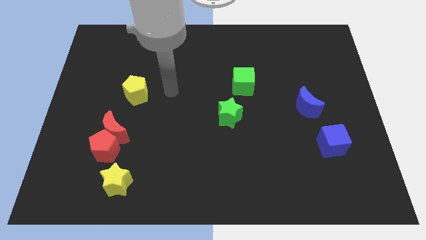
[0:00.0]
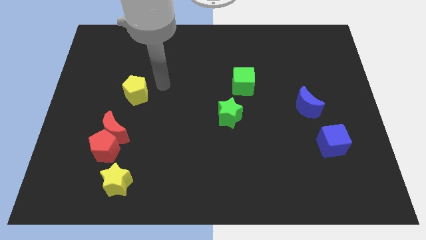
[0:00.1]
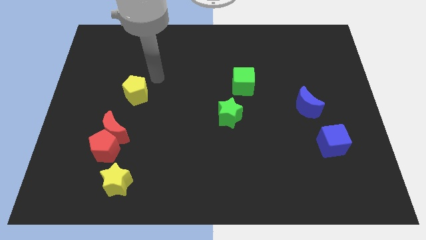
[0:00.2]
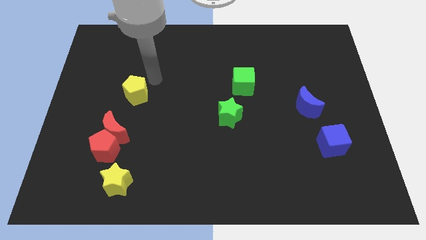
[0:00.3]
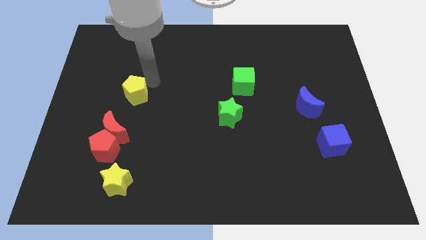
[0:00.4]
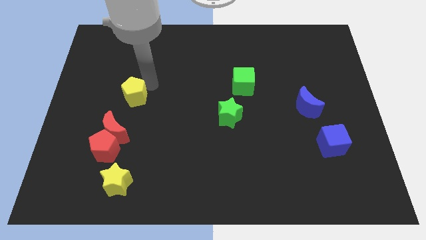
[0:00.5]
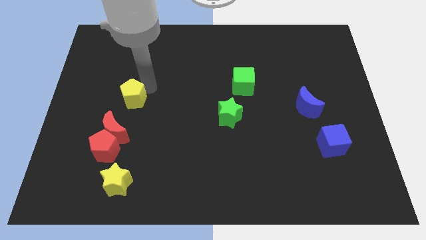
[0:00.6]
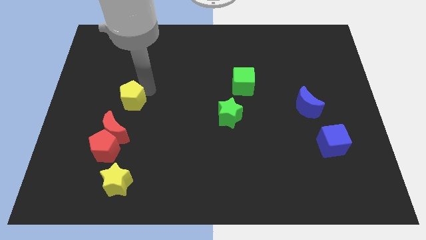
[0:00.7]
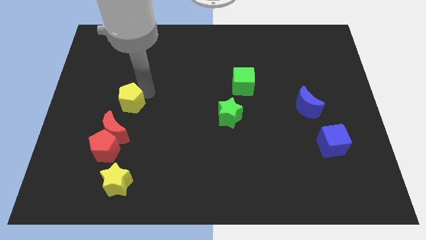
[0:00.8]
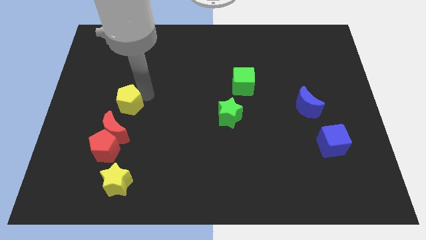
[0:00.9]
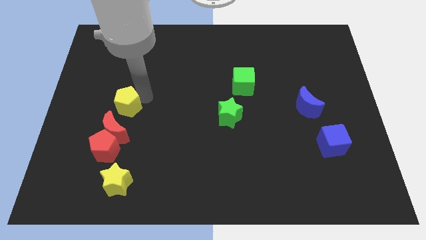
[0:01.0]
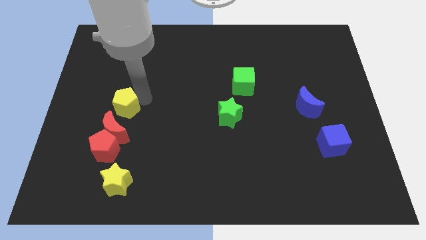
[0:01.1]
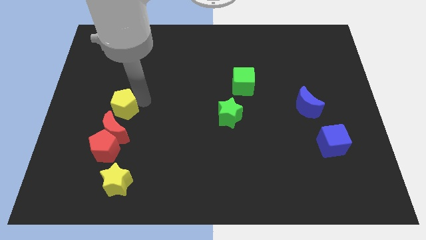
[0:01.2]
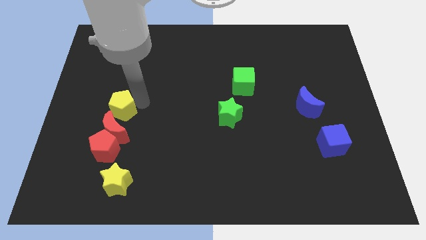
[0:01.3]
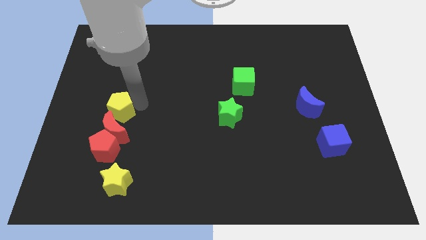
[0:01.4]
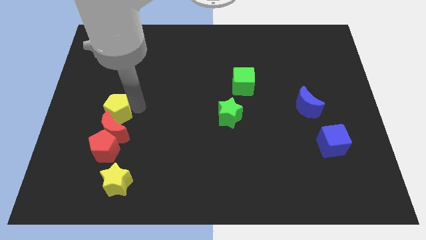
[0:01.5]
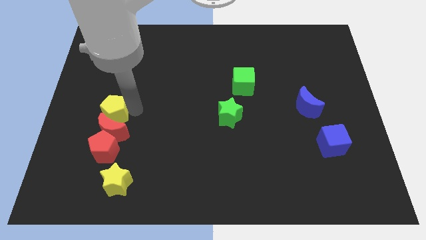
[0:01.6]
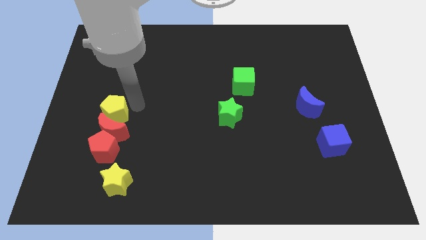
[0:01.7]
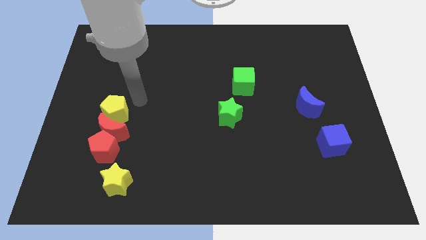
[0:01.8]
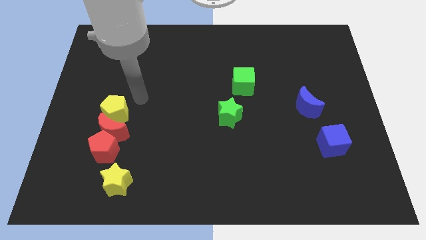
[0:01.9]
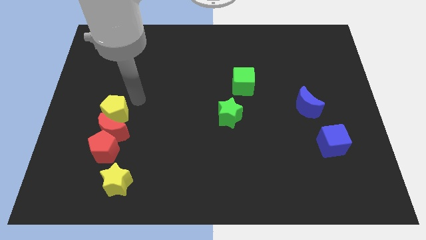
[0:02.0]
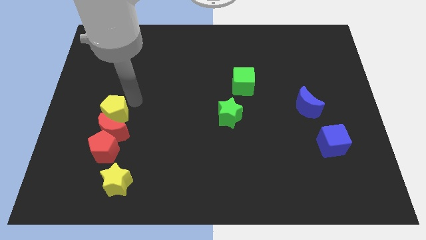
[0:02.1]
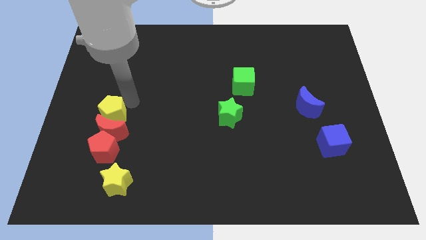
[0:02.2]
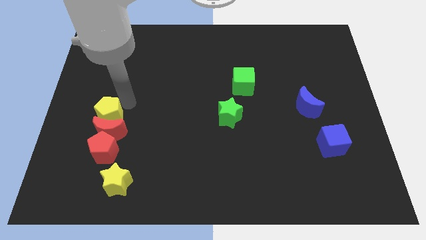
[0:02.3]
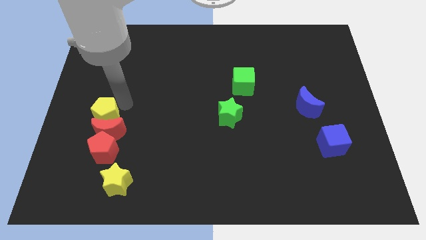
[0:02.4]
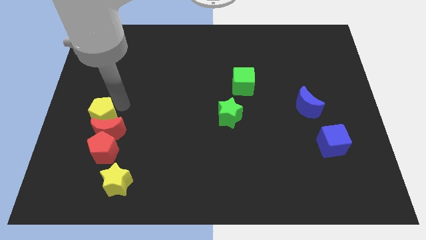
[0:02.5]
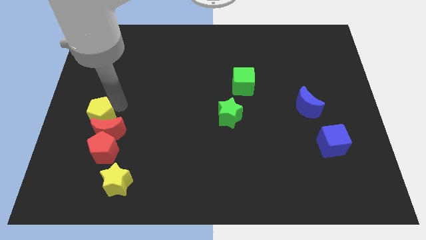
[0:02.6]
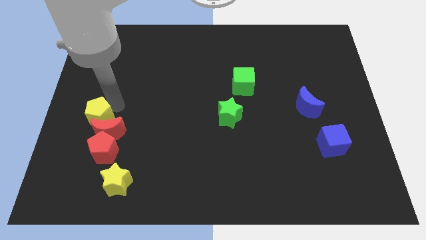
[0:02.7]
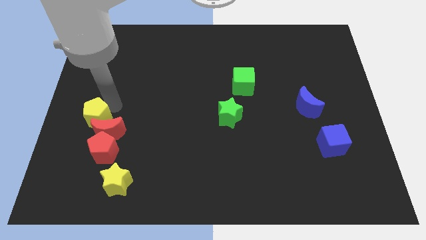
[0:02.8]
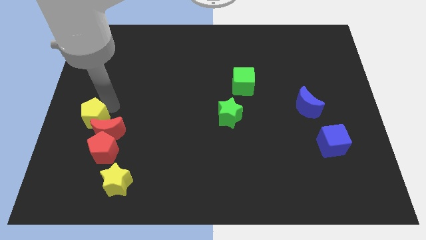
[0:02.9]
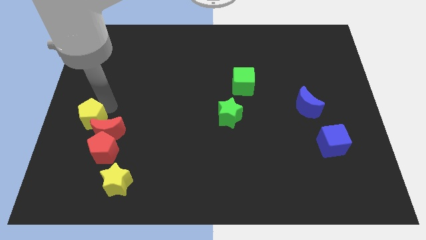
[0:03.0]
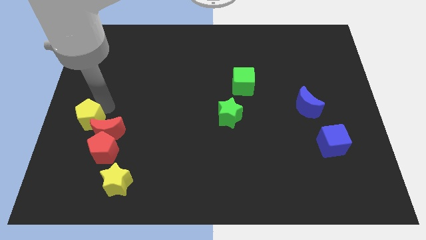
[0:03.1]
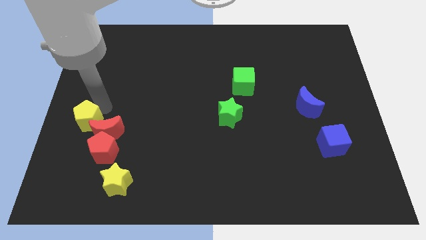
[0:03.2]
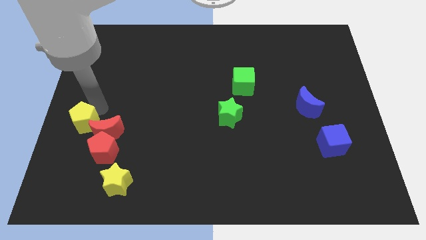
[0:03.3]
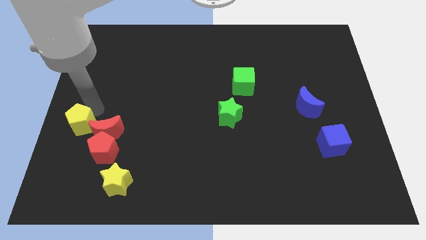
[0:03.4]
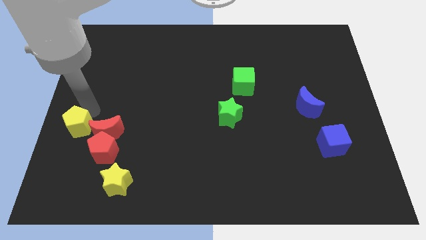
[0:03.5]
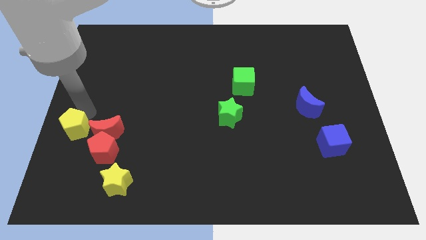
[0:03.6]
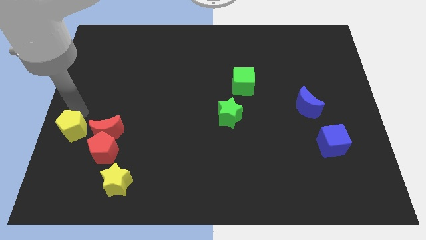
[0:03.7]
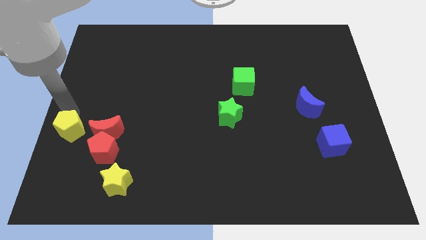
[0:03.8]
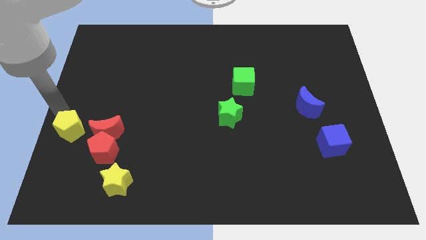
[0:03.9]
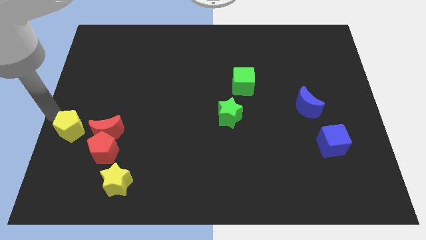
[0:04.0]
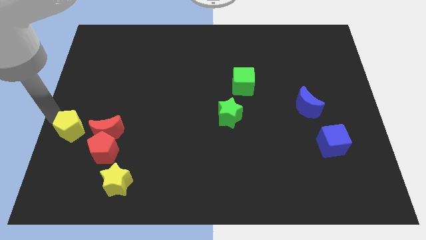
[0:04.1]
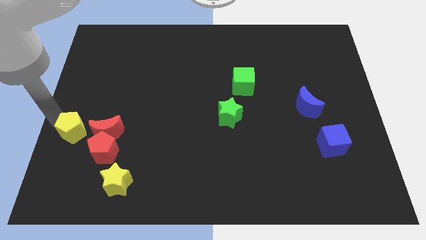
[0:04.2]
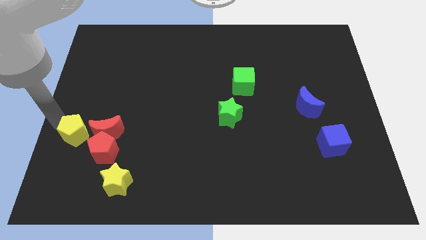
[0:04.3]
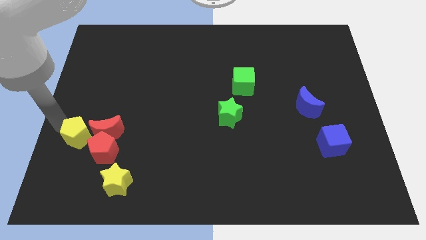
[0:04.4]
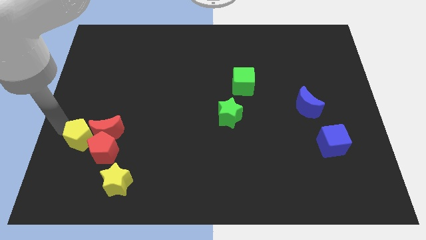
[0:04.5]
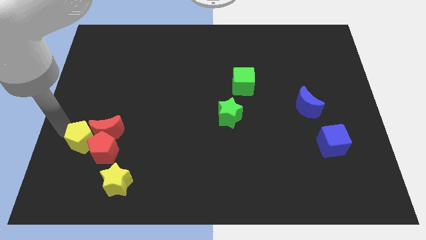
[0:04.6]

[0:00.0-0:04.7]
put the yellow pentagon towards the red pentagon

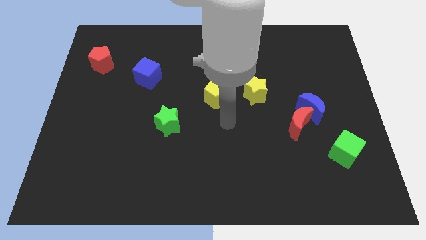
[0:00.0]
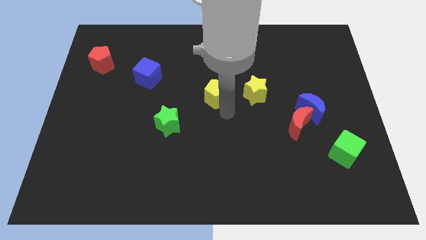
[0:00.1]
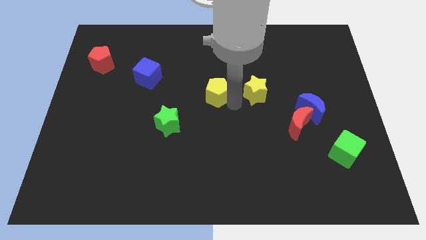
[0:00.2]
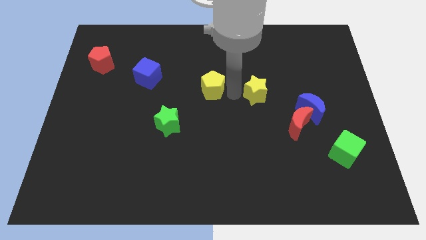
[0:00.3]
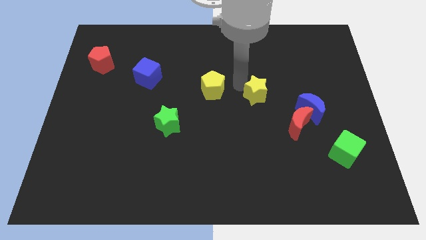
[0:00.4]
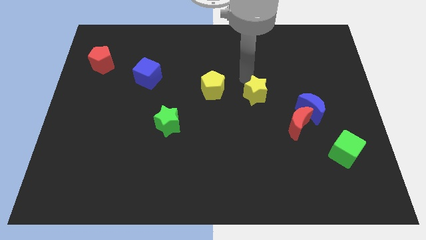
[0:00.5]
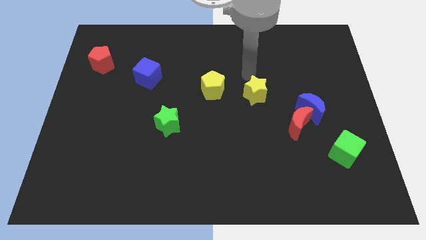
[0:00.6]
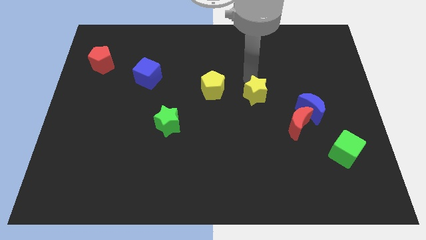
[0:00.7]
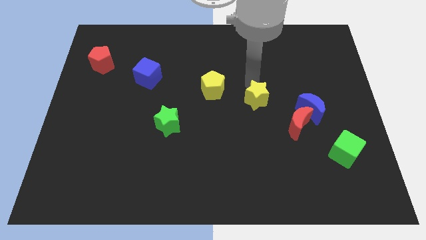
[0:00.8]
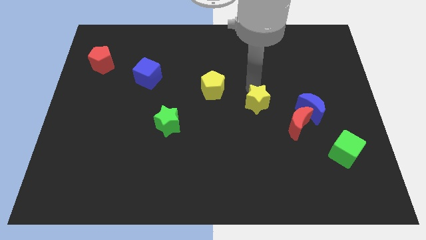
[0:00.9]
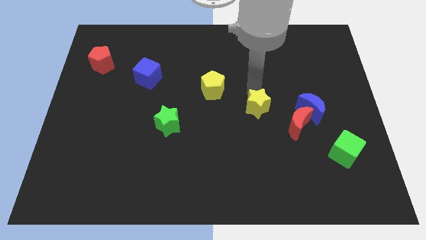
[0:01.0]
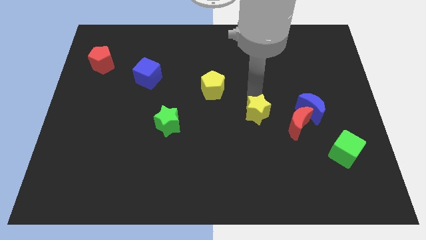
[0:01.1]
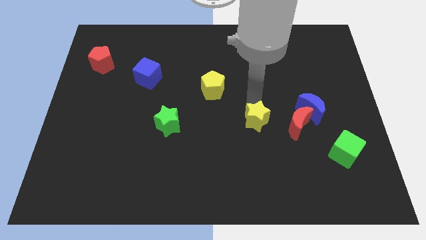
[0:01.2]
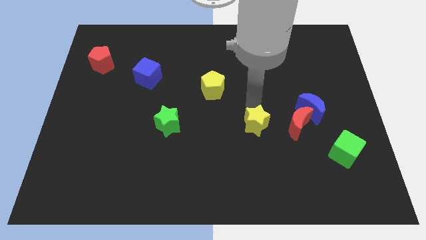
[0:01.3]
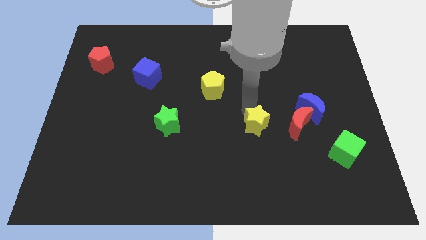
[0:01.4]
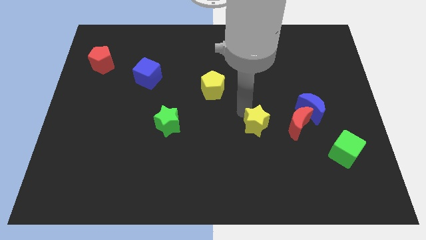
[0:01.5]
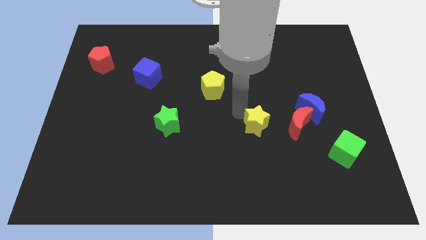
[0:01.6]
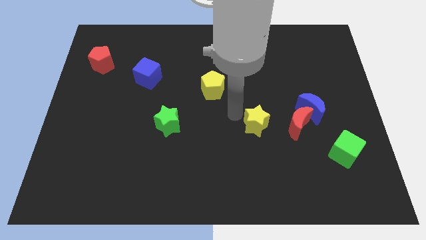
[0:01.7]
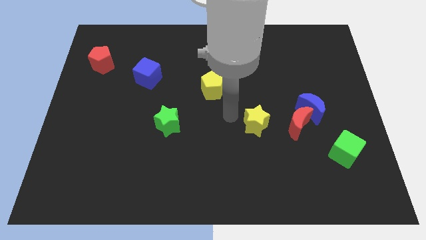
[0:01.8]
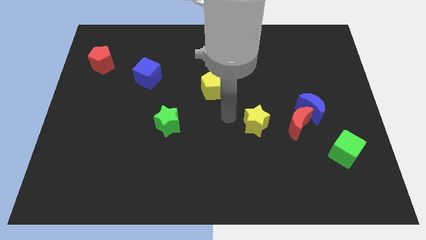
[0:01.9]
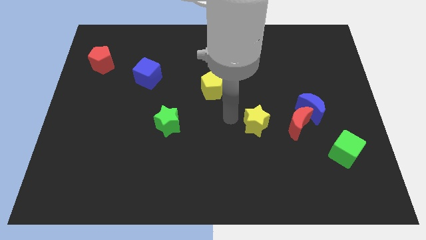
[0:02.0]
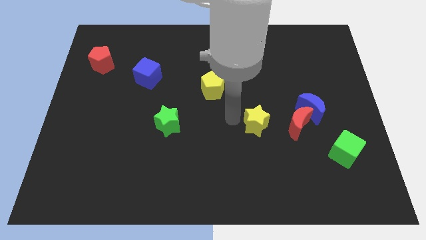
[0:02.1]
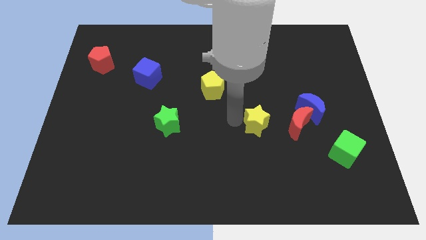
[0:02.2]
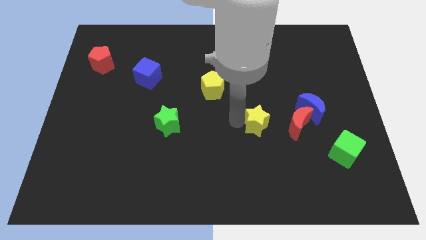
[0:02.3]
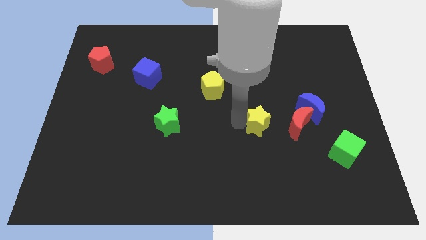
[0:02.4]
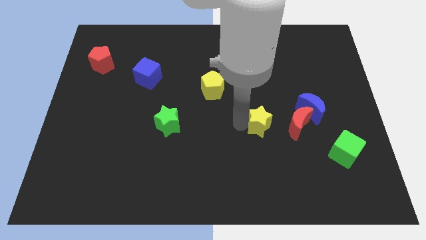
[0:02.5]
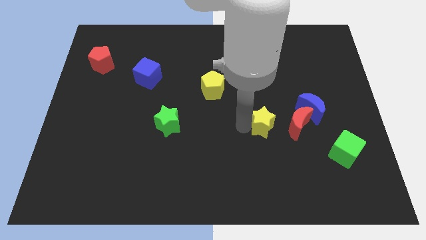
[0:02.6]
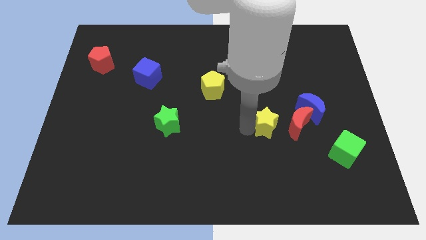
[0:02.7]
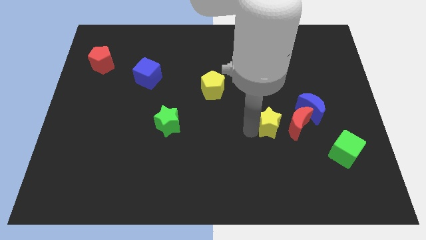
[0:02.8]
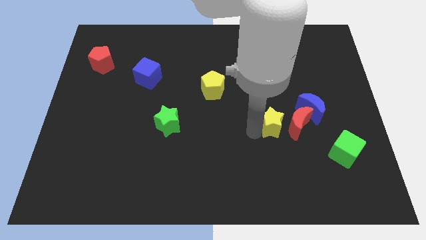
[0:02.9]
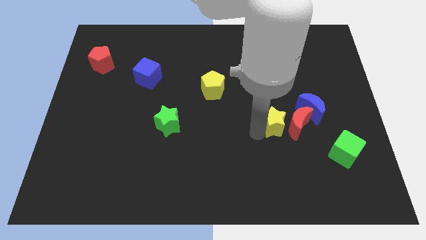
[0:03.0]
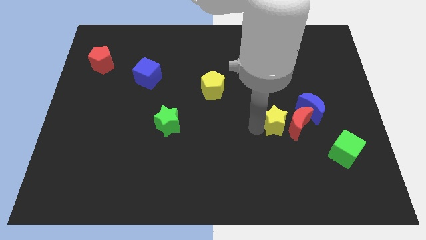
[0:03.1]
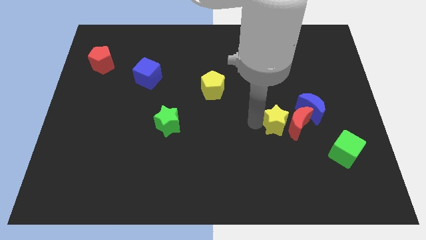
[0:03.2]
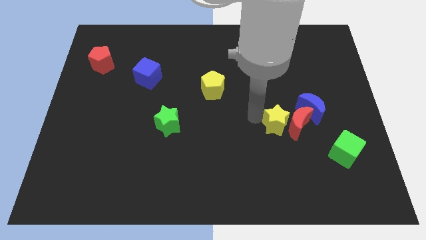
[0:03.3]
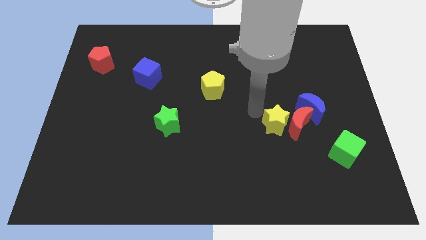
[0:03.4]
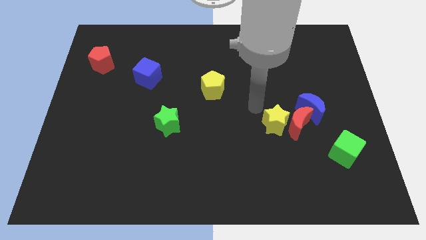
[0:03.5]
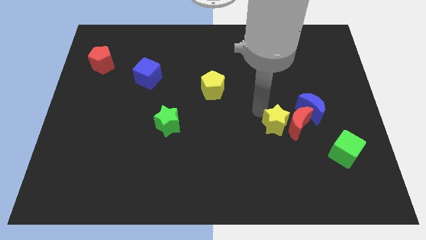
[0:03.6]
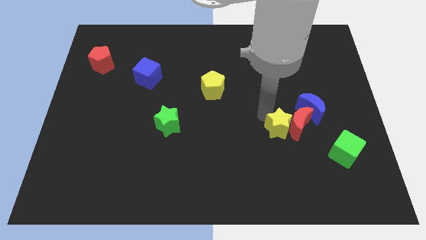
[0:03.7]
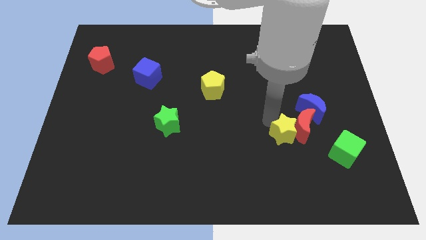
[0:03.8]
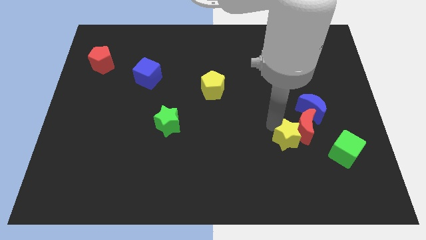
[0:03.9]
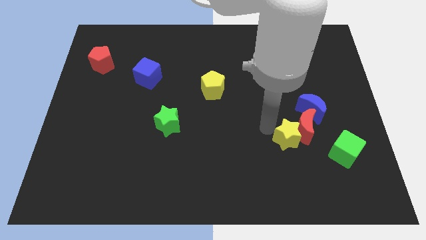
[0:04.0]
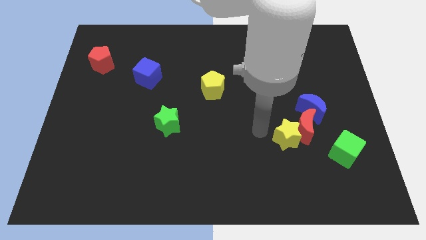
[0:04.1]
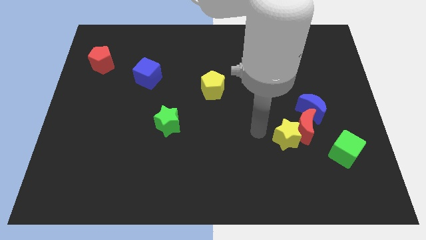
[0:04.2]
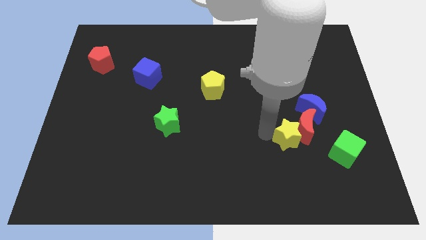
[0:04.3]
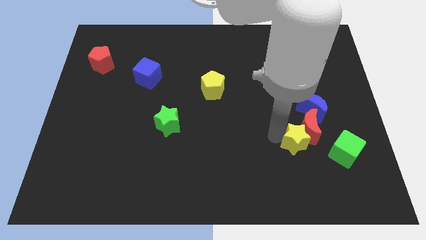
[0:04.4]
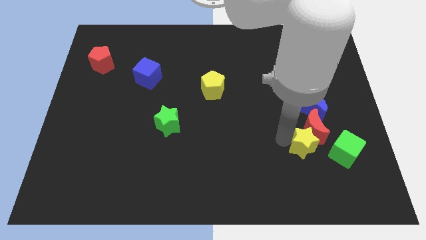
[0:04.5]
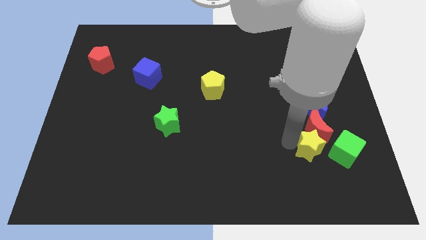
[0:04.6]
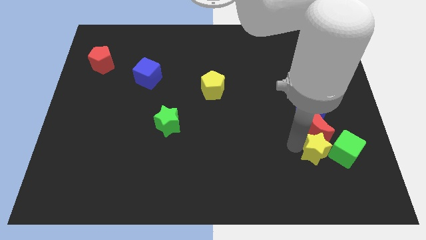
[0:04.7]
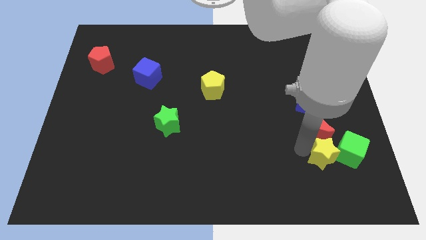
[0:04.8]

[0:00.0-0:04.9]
push the yellow star towards the green cube
